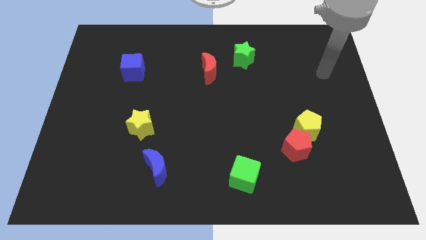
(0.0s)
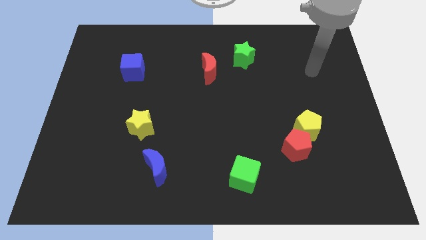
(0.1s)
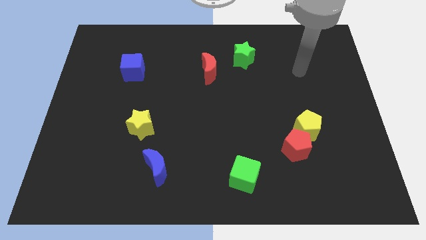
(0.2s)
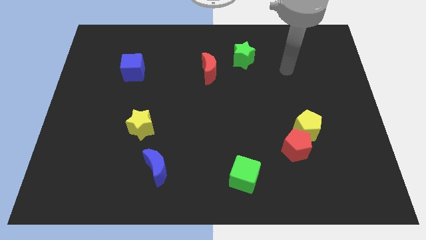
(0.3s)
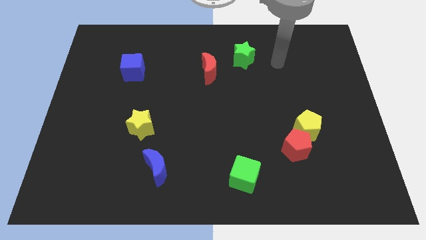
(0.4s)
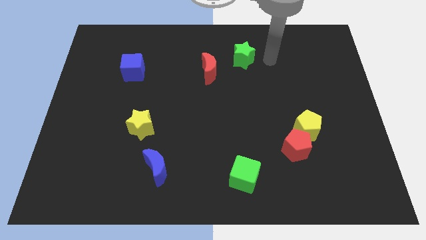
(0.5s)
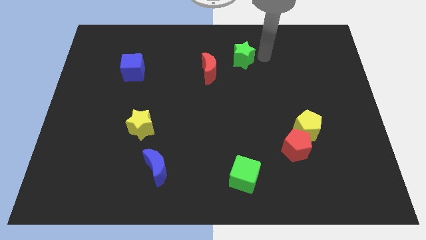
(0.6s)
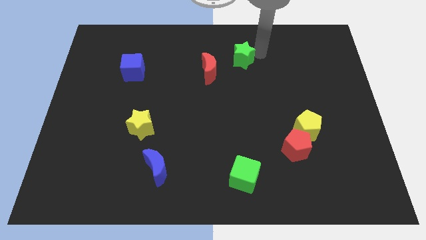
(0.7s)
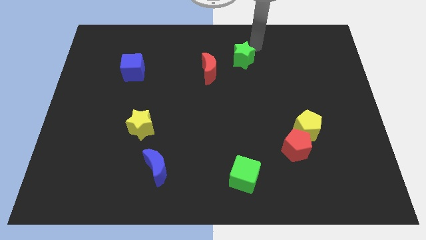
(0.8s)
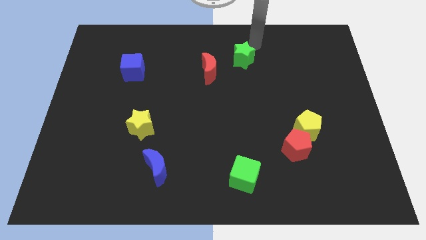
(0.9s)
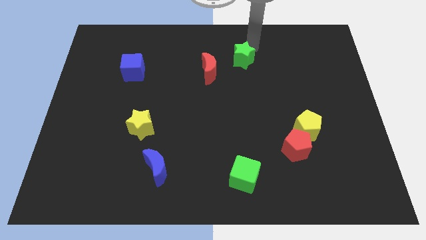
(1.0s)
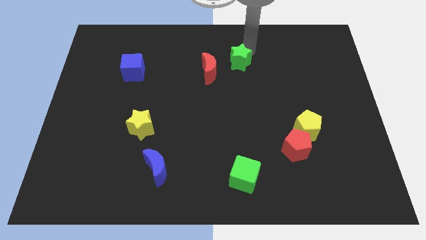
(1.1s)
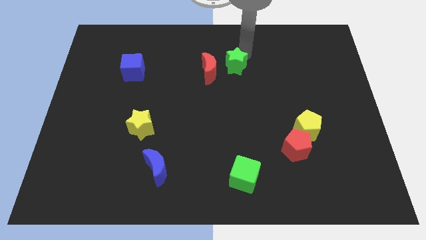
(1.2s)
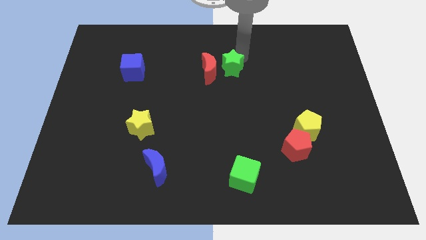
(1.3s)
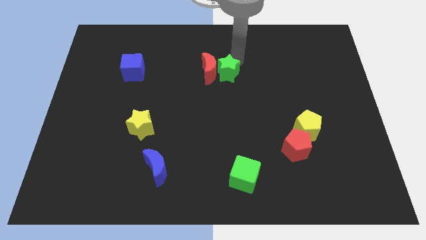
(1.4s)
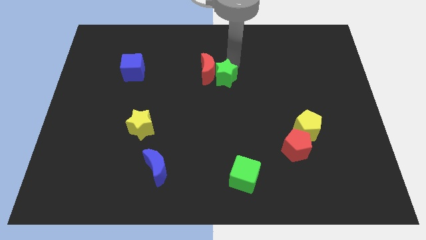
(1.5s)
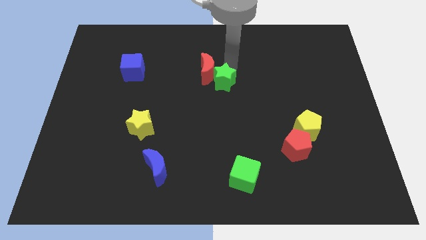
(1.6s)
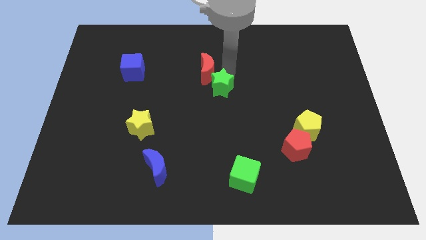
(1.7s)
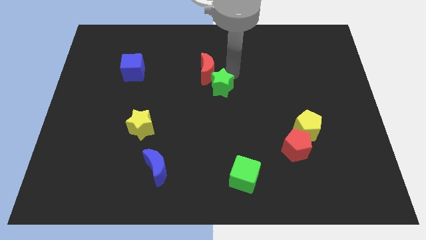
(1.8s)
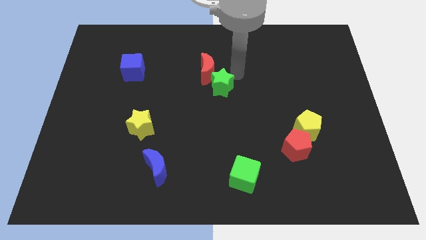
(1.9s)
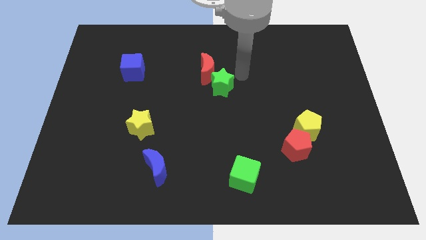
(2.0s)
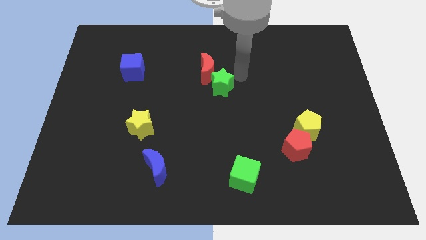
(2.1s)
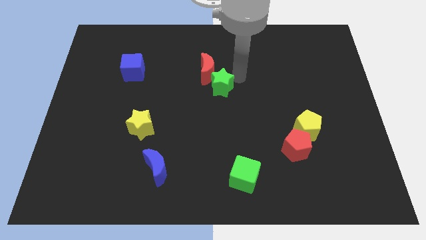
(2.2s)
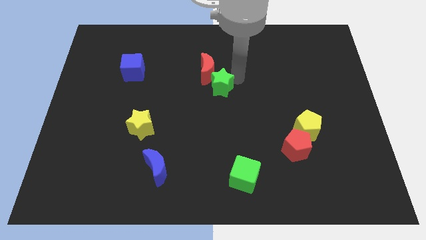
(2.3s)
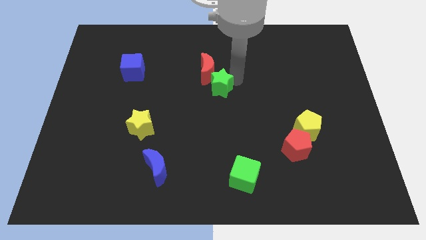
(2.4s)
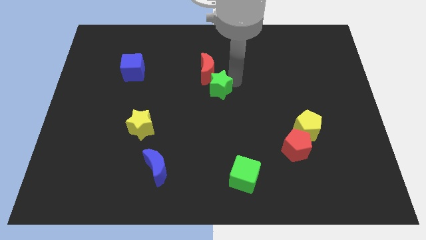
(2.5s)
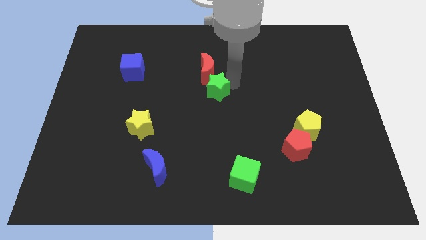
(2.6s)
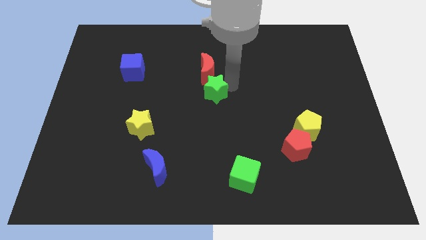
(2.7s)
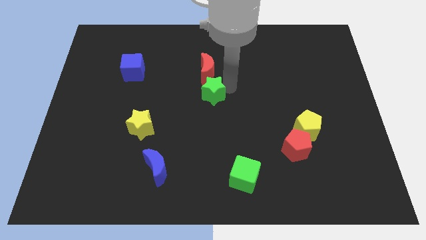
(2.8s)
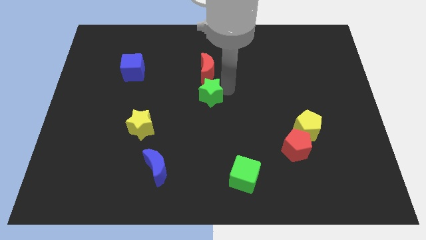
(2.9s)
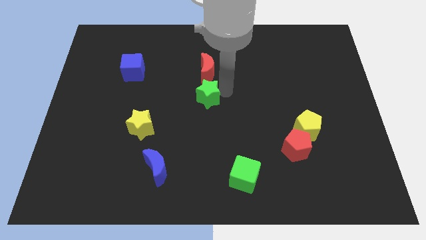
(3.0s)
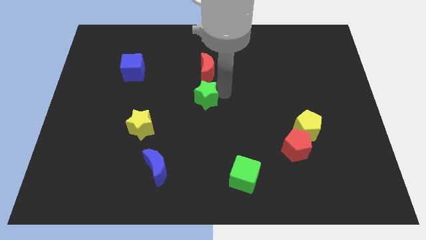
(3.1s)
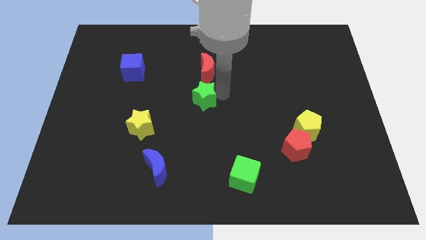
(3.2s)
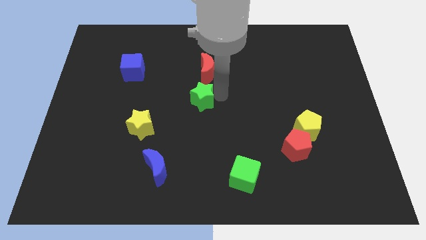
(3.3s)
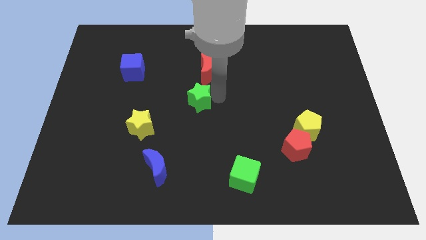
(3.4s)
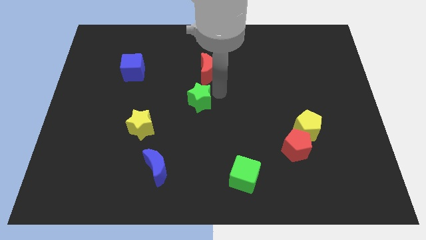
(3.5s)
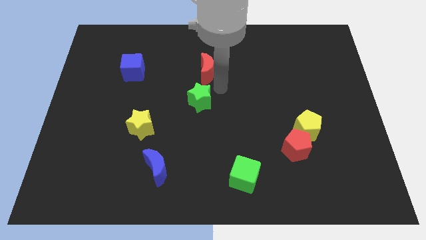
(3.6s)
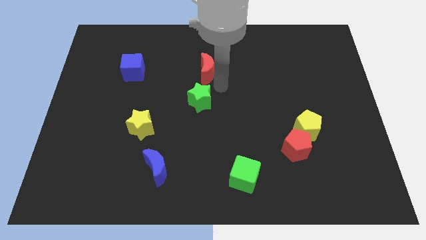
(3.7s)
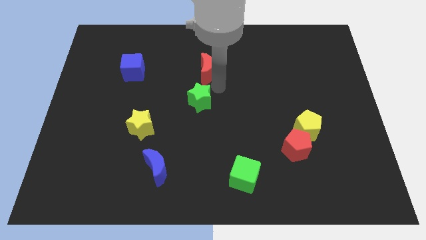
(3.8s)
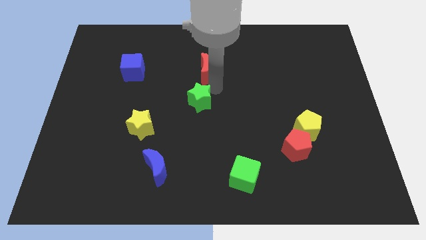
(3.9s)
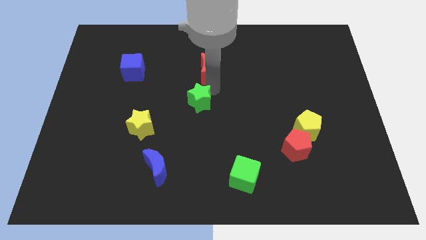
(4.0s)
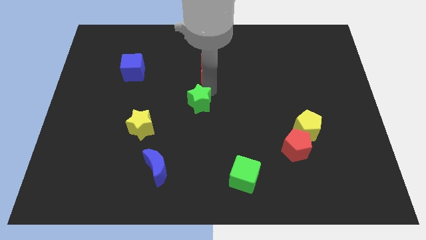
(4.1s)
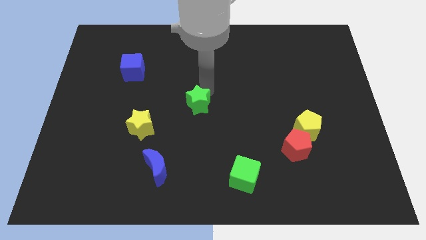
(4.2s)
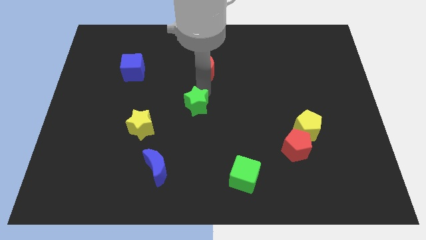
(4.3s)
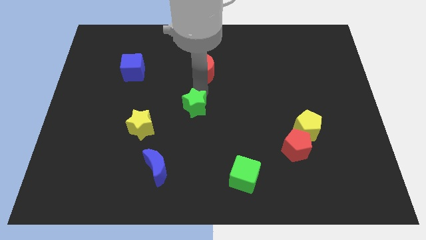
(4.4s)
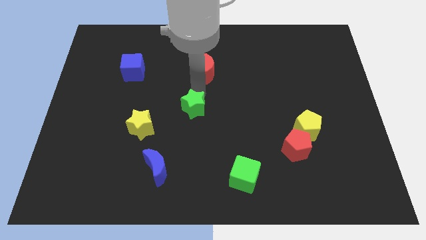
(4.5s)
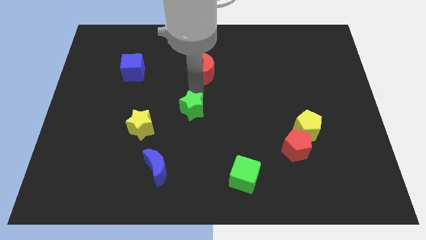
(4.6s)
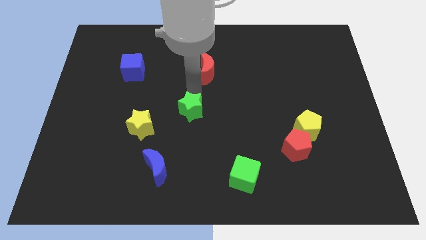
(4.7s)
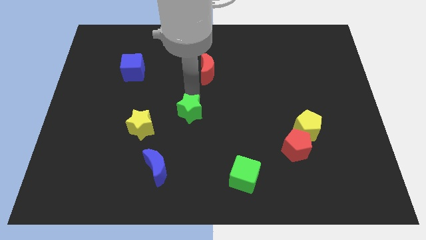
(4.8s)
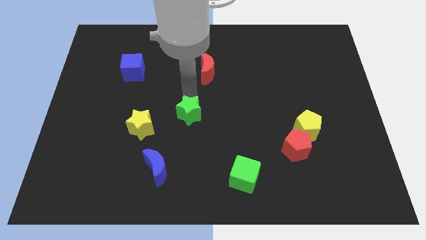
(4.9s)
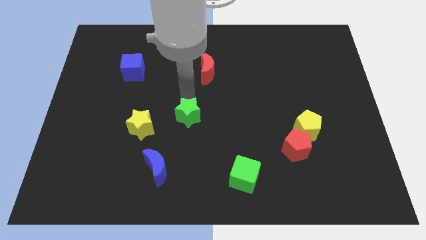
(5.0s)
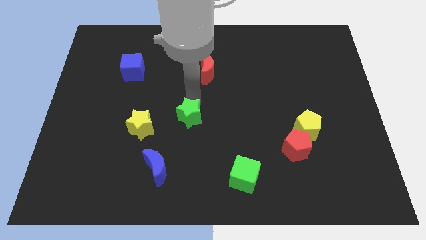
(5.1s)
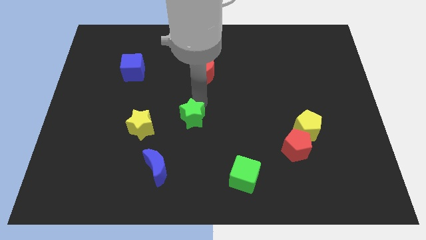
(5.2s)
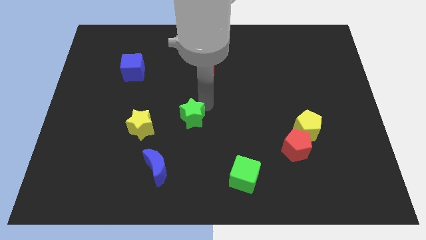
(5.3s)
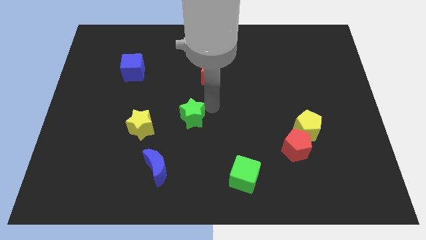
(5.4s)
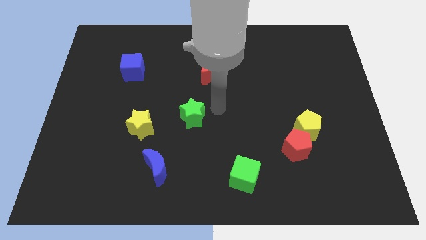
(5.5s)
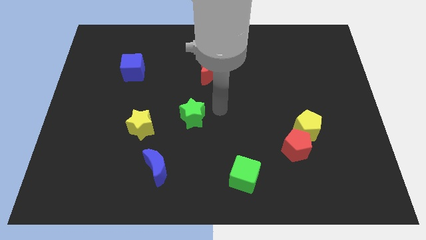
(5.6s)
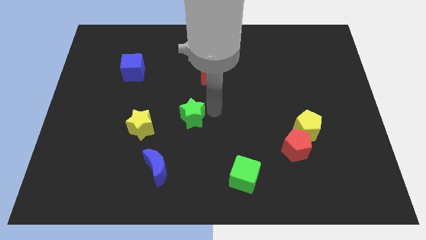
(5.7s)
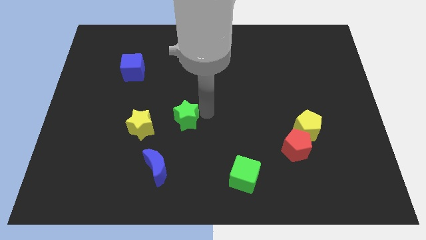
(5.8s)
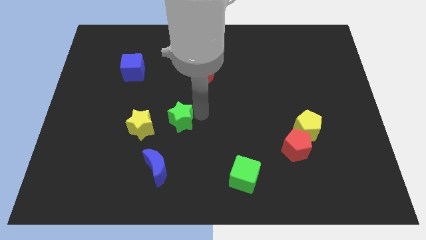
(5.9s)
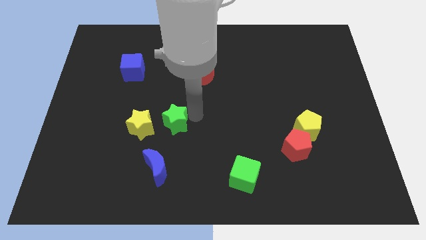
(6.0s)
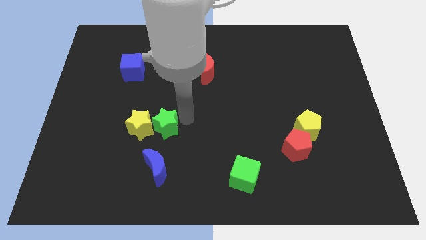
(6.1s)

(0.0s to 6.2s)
move the green star towards the yellow star

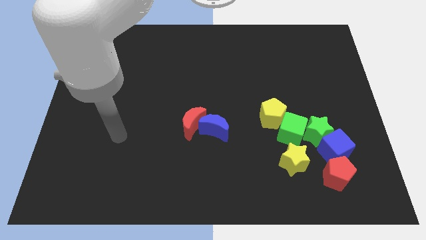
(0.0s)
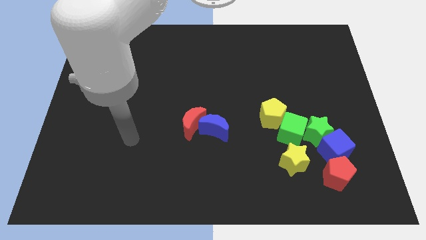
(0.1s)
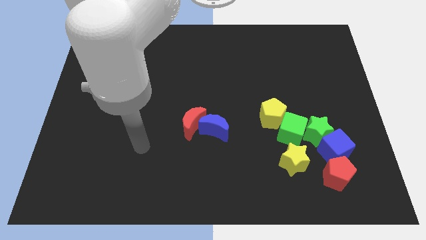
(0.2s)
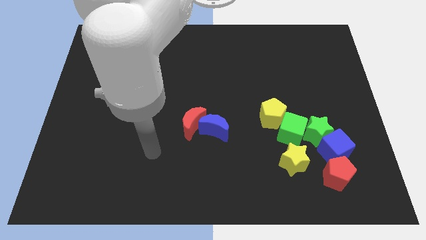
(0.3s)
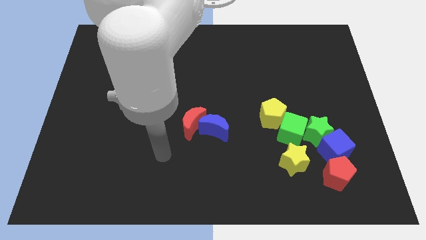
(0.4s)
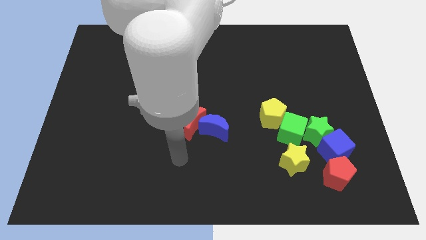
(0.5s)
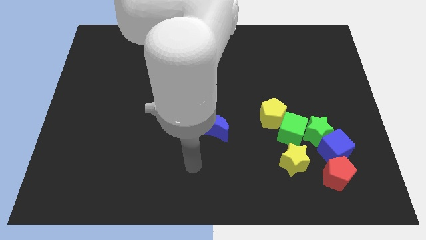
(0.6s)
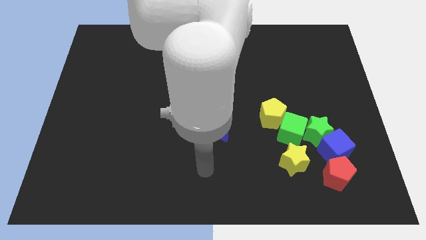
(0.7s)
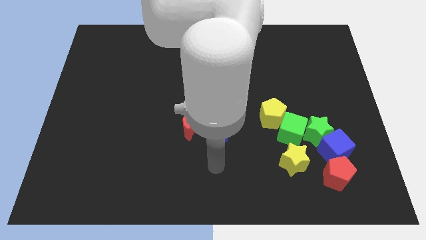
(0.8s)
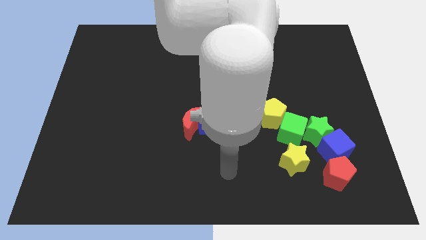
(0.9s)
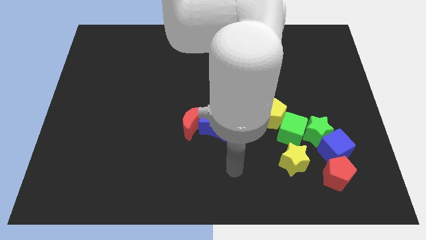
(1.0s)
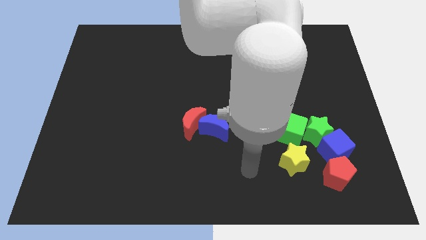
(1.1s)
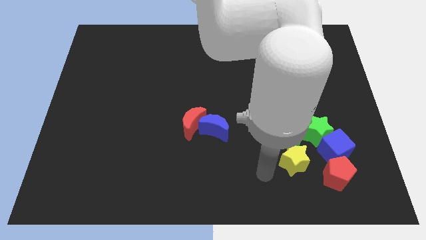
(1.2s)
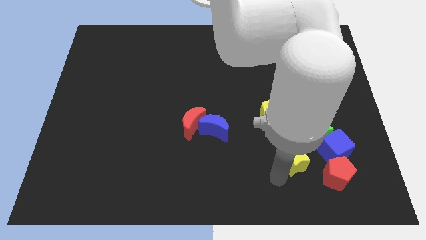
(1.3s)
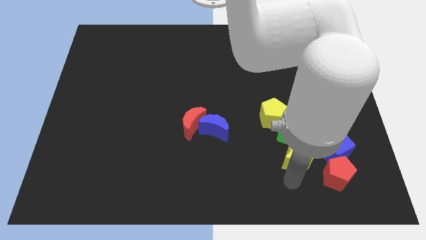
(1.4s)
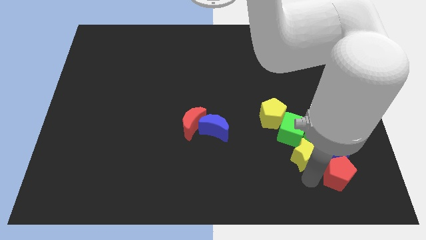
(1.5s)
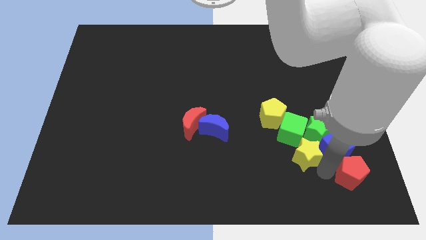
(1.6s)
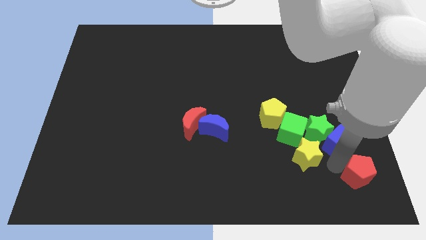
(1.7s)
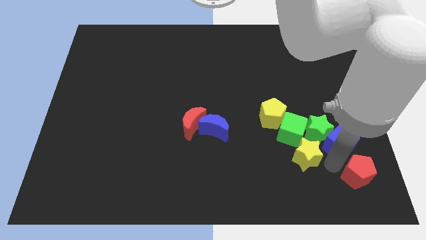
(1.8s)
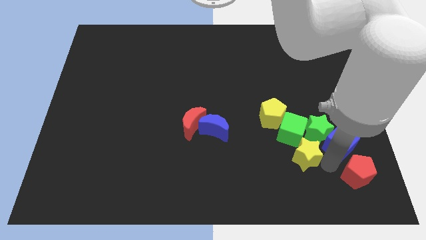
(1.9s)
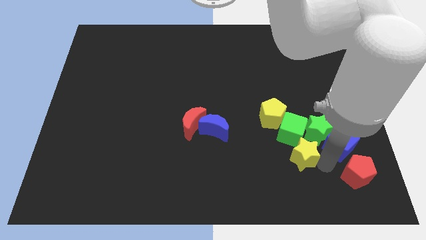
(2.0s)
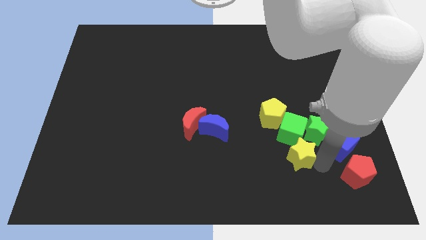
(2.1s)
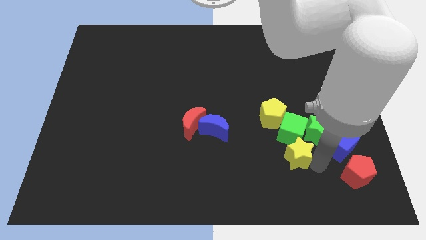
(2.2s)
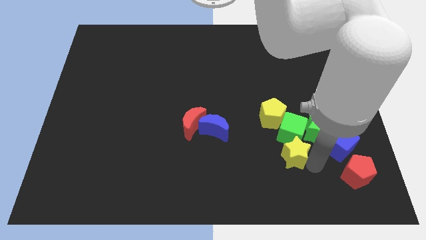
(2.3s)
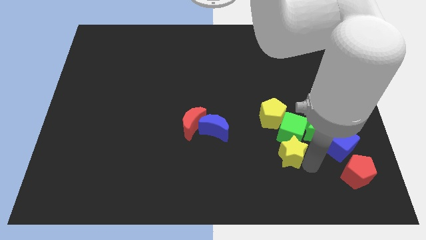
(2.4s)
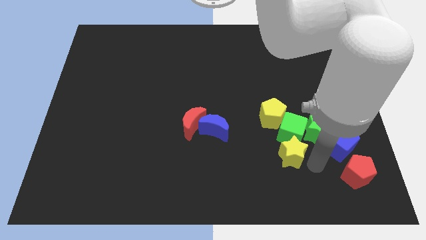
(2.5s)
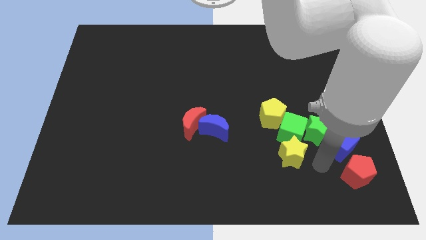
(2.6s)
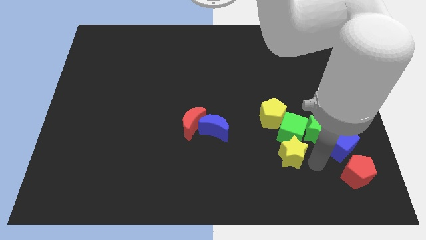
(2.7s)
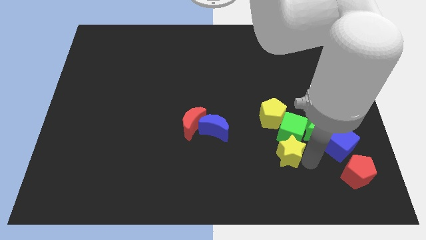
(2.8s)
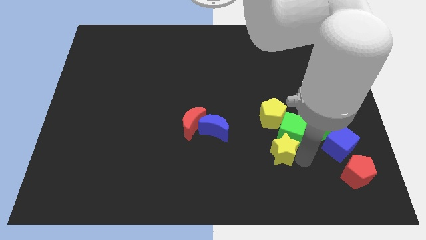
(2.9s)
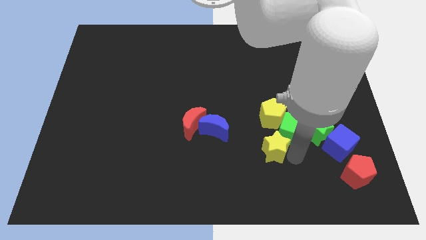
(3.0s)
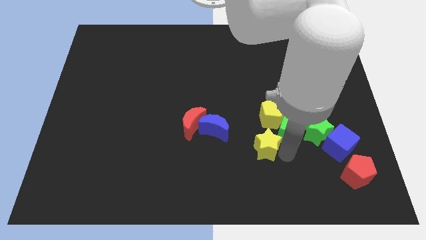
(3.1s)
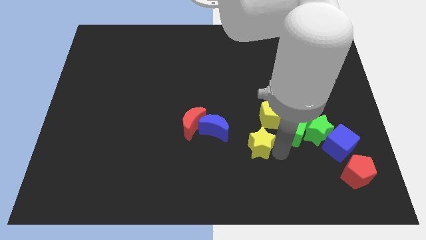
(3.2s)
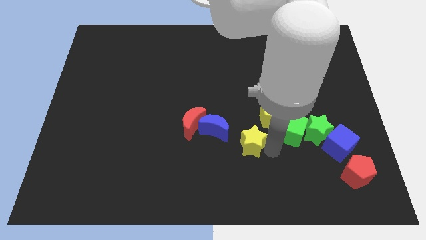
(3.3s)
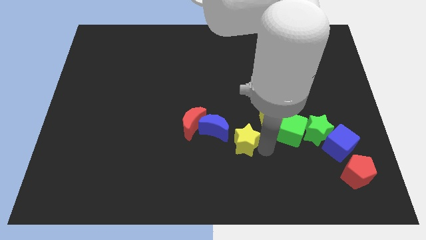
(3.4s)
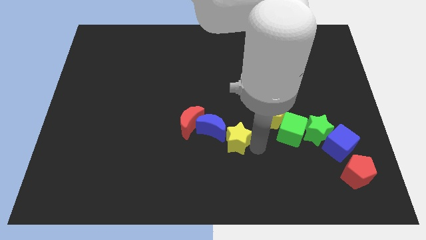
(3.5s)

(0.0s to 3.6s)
put the yellow star next to the blue moon
